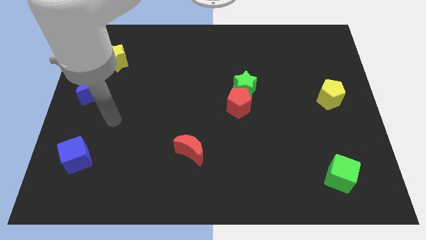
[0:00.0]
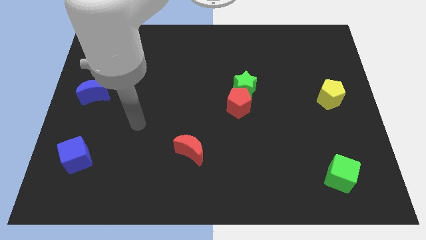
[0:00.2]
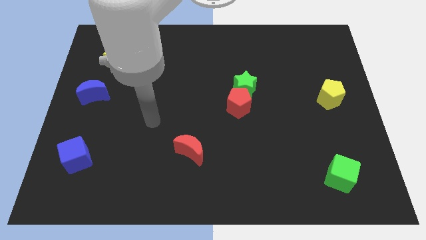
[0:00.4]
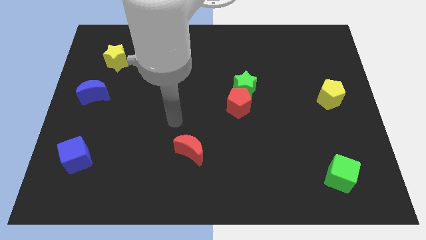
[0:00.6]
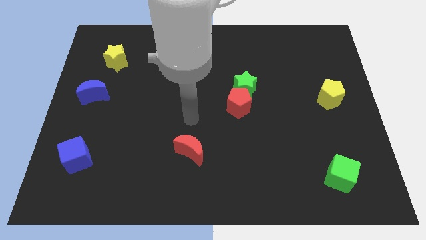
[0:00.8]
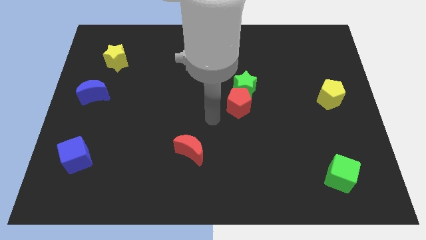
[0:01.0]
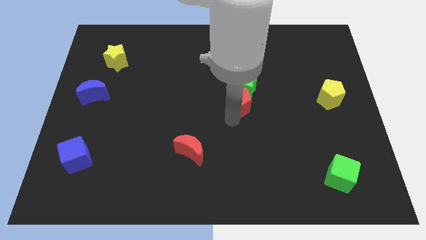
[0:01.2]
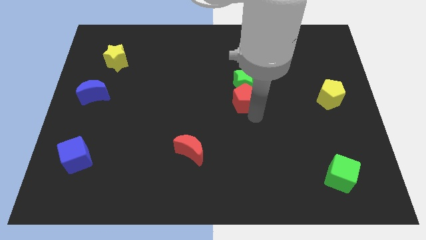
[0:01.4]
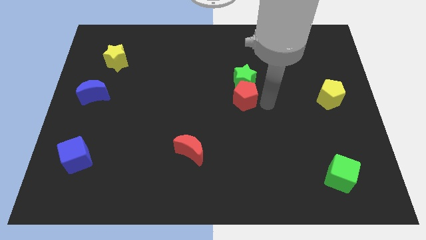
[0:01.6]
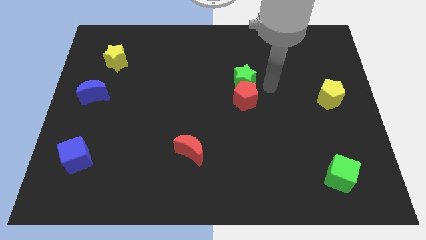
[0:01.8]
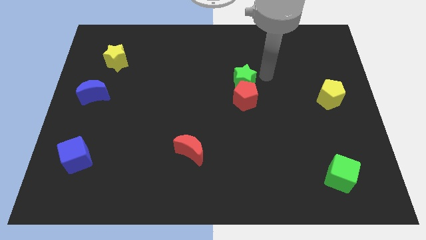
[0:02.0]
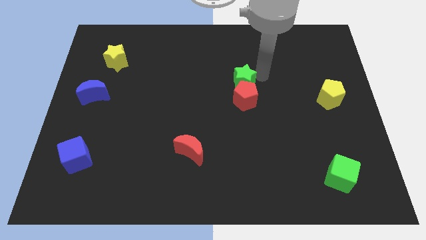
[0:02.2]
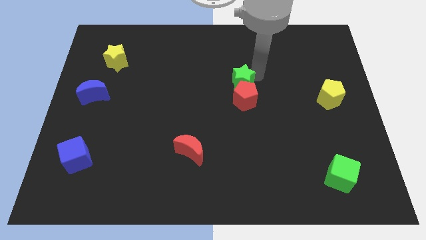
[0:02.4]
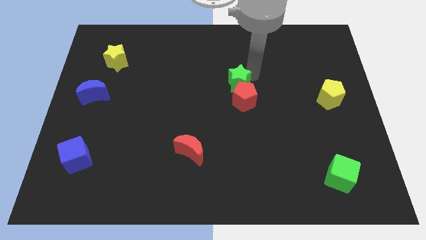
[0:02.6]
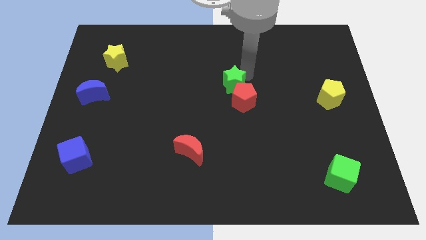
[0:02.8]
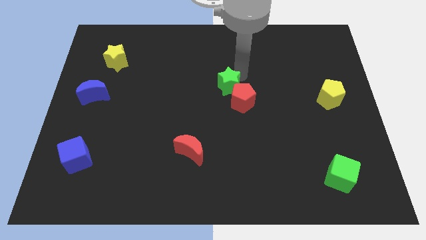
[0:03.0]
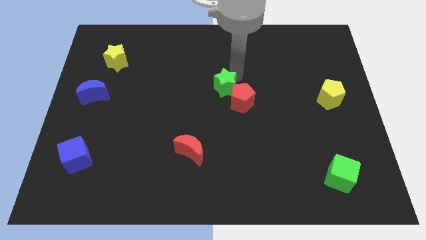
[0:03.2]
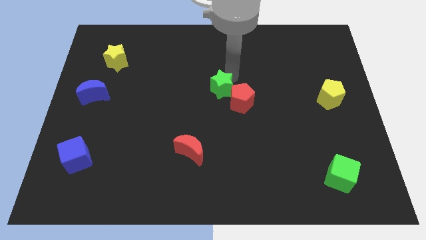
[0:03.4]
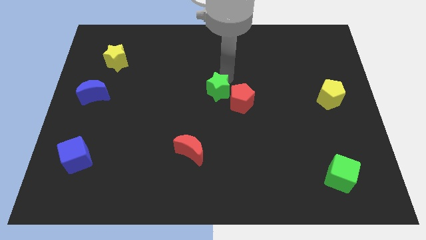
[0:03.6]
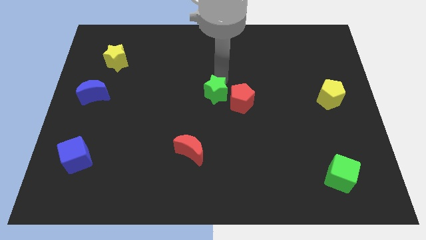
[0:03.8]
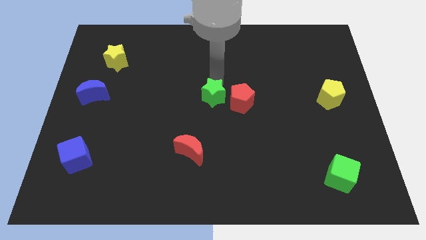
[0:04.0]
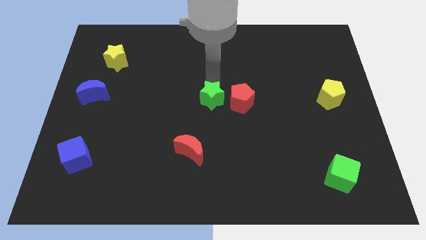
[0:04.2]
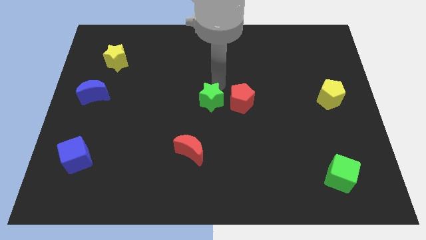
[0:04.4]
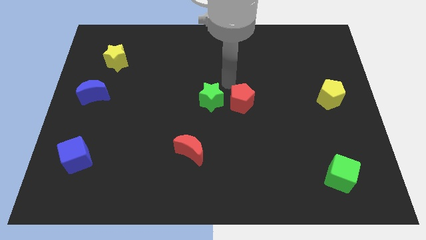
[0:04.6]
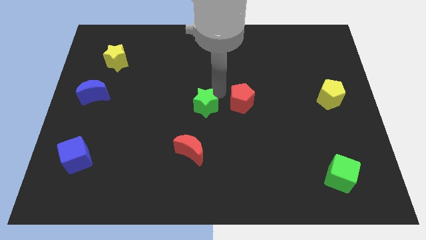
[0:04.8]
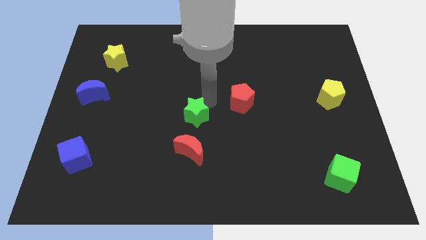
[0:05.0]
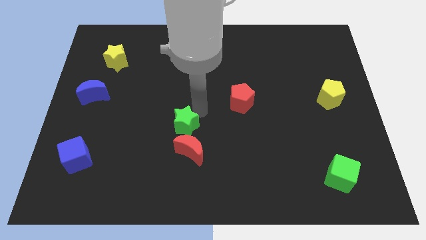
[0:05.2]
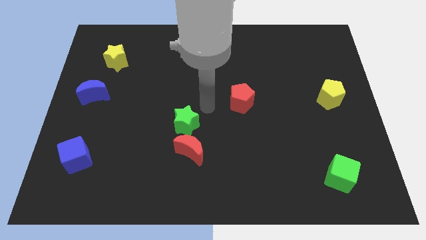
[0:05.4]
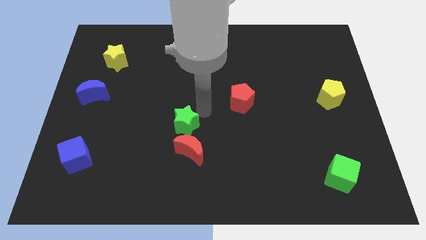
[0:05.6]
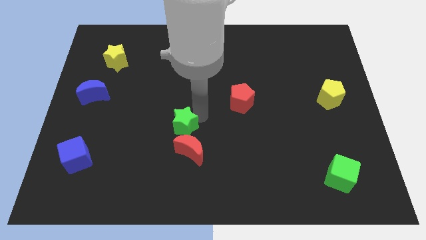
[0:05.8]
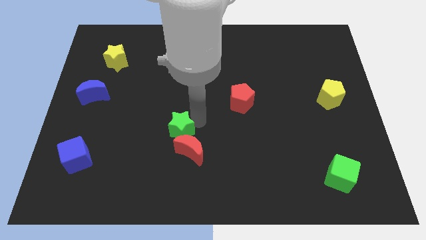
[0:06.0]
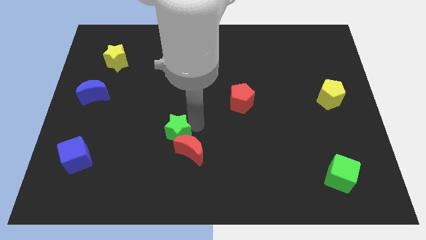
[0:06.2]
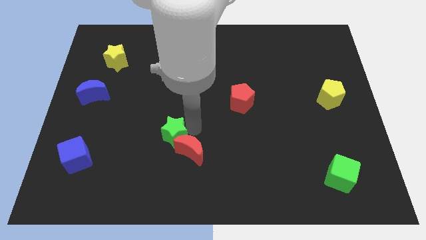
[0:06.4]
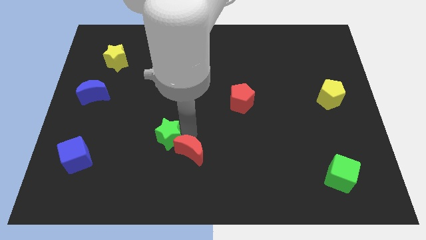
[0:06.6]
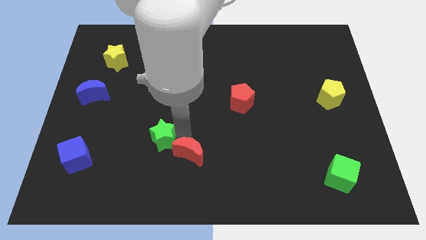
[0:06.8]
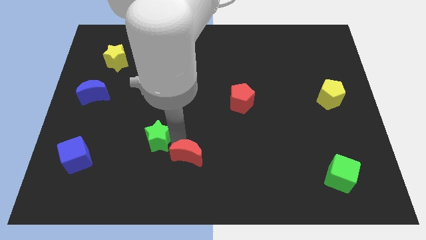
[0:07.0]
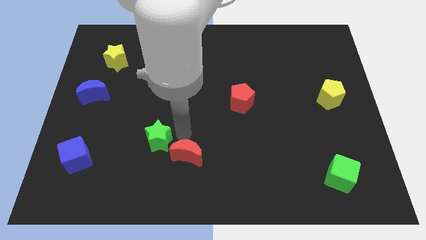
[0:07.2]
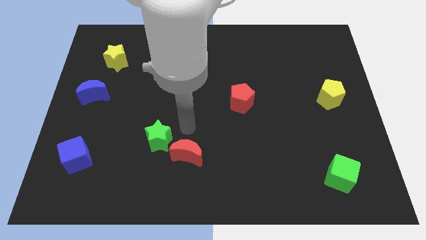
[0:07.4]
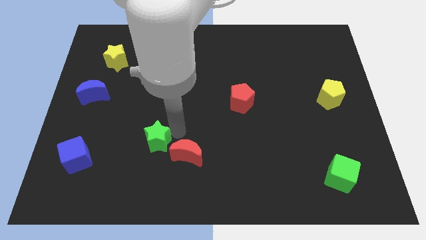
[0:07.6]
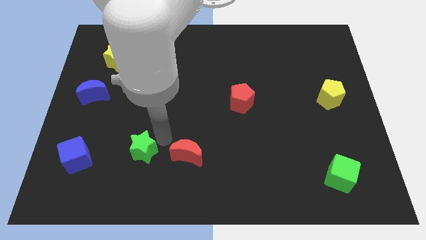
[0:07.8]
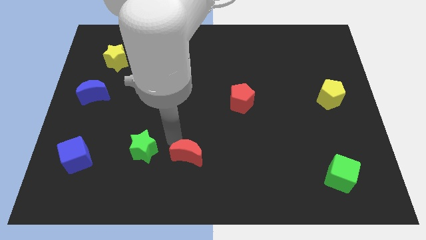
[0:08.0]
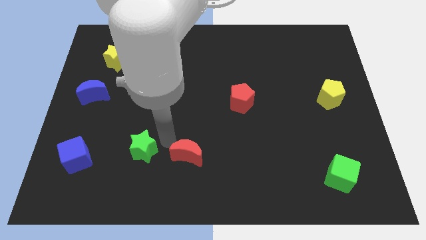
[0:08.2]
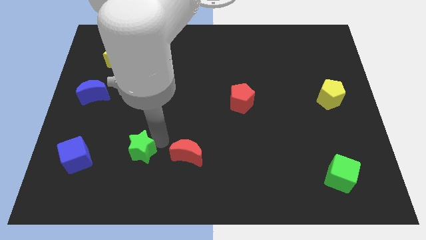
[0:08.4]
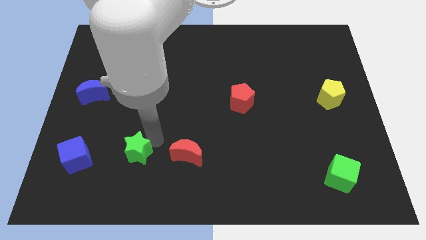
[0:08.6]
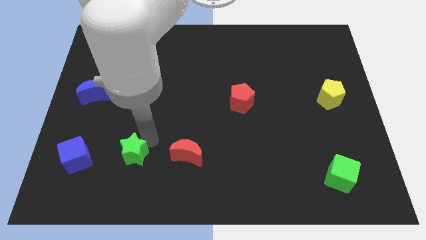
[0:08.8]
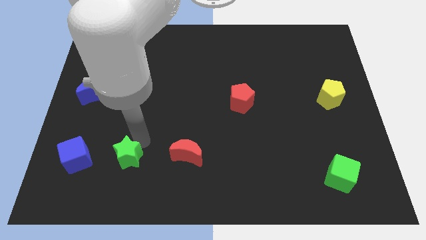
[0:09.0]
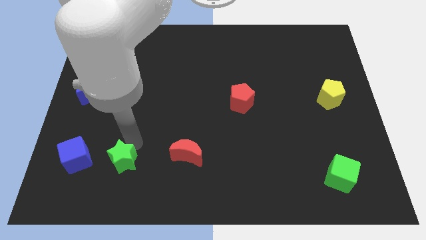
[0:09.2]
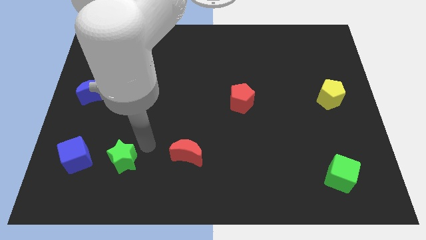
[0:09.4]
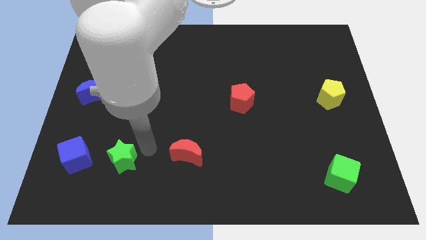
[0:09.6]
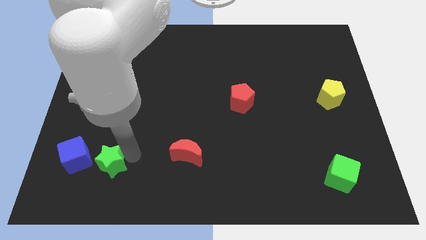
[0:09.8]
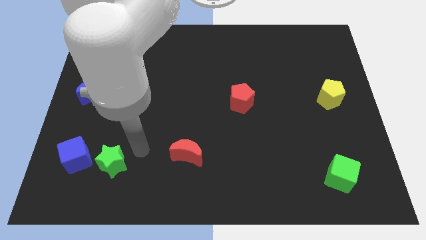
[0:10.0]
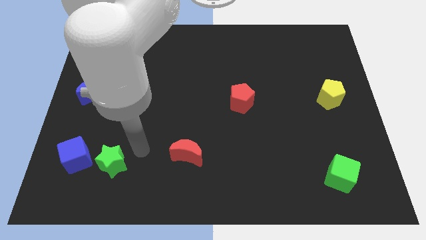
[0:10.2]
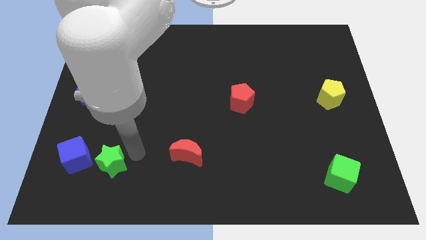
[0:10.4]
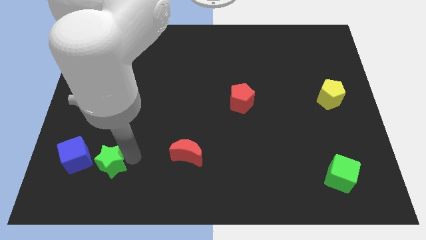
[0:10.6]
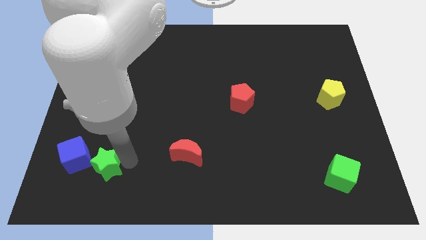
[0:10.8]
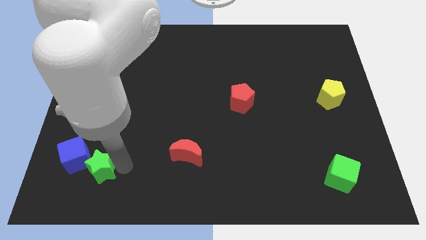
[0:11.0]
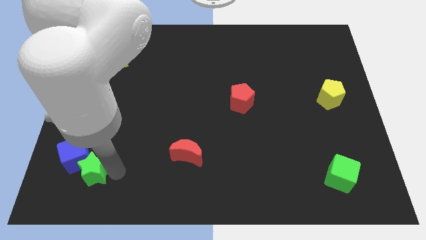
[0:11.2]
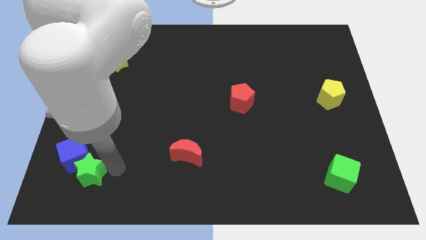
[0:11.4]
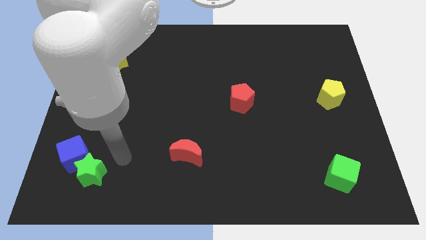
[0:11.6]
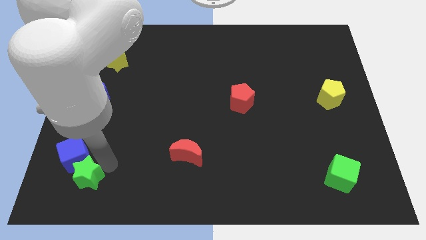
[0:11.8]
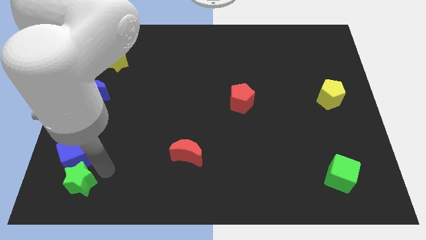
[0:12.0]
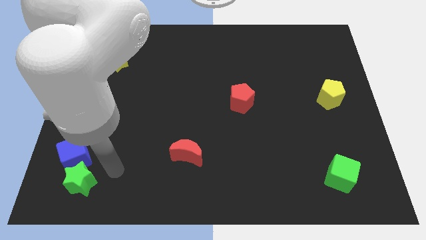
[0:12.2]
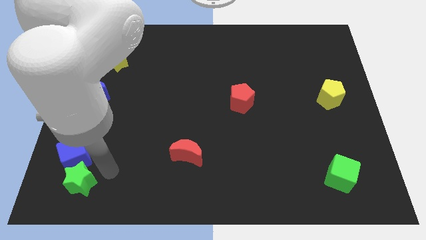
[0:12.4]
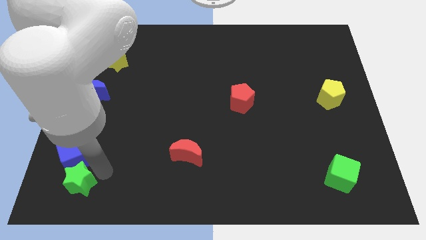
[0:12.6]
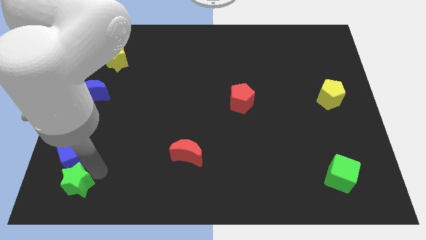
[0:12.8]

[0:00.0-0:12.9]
move the green star to the bottom left
